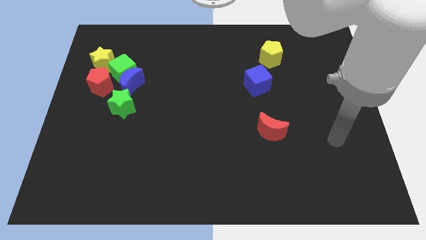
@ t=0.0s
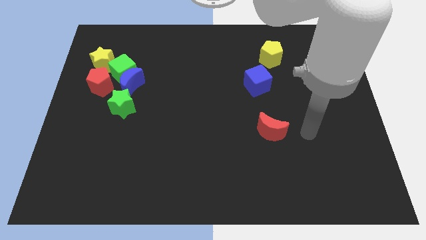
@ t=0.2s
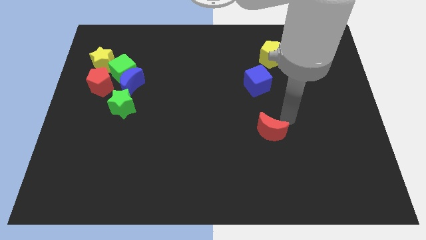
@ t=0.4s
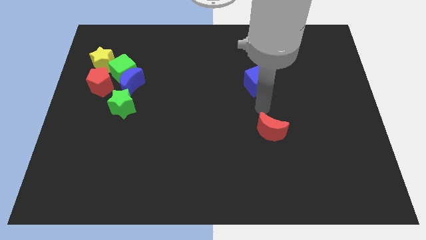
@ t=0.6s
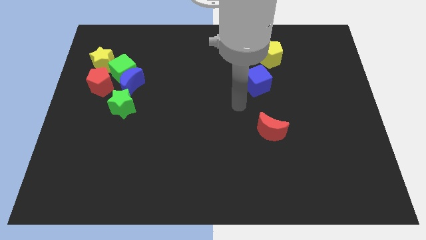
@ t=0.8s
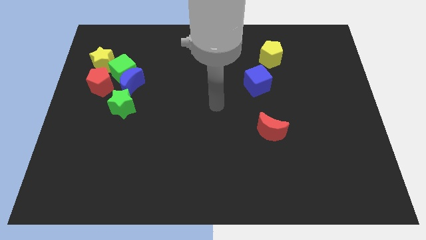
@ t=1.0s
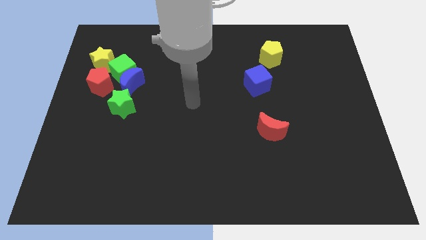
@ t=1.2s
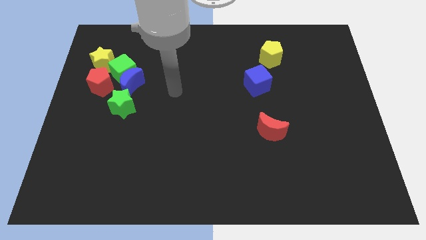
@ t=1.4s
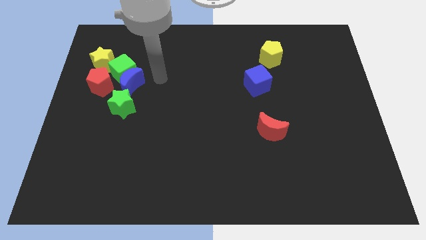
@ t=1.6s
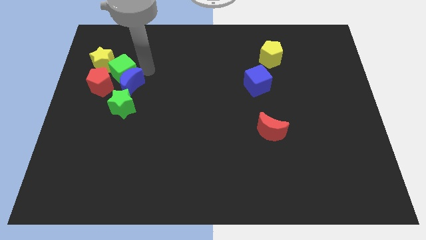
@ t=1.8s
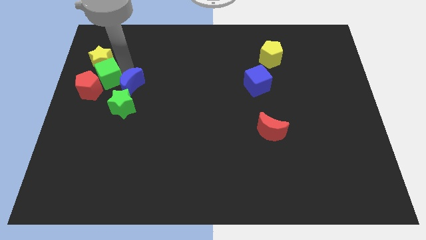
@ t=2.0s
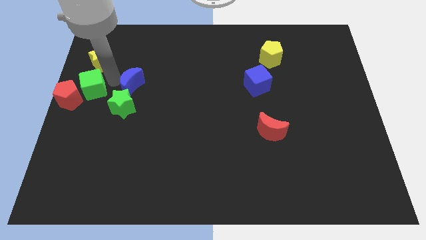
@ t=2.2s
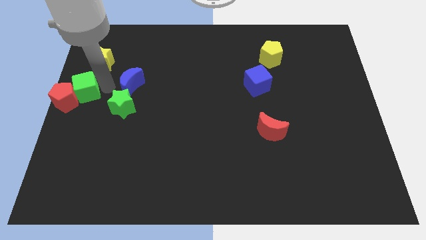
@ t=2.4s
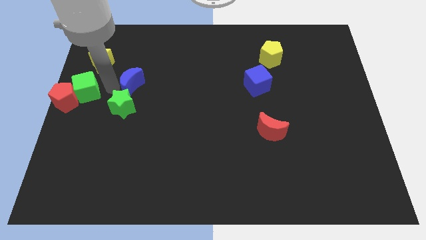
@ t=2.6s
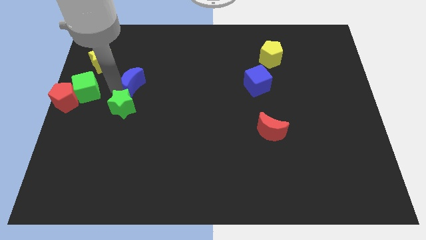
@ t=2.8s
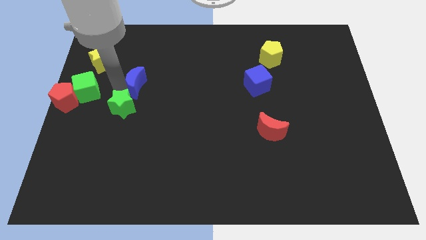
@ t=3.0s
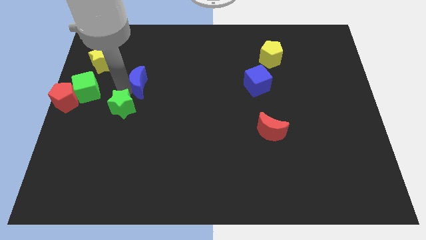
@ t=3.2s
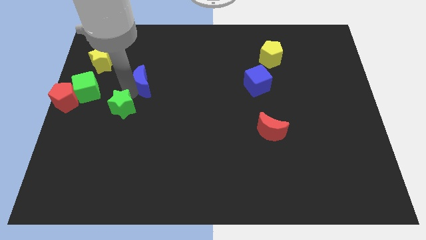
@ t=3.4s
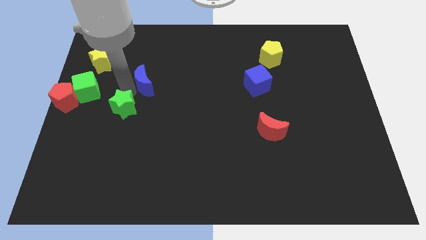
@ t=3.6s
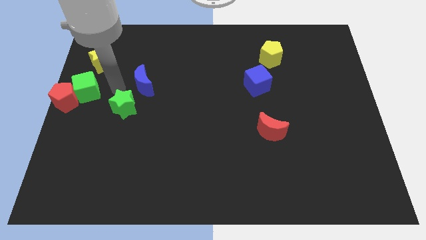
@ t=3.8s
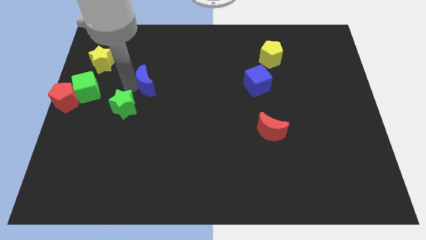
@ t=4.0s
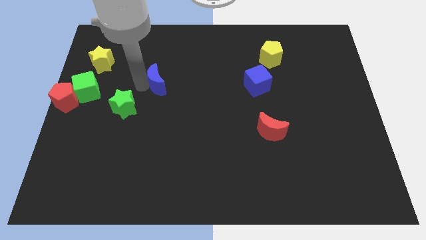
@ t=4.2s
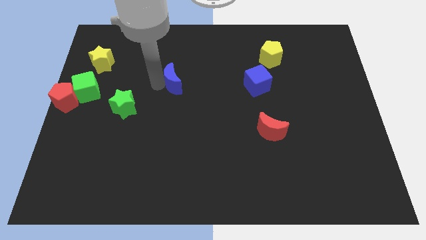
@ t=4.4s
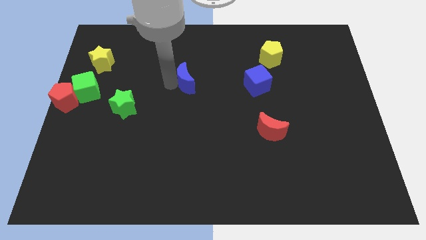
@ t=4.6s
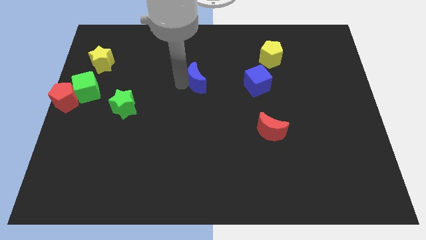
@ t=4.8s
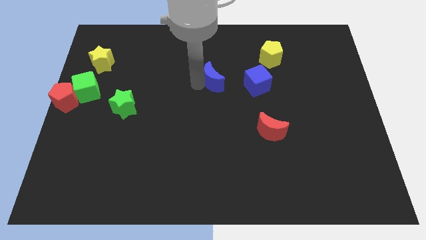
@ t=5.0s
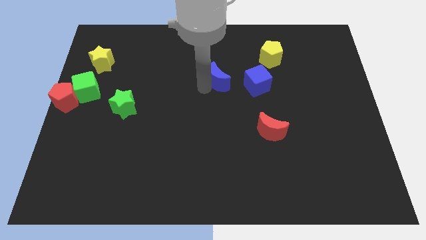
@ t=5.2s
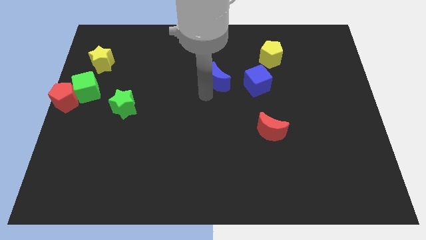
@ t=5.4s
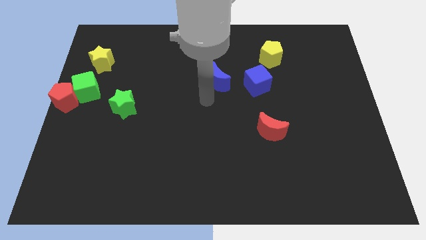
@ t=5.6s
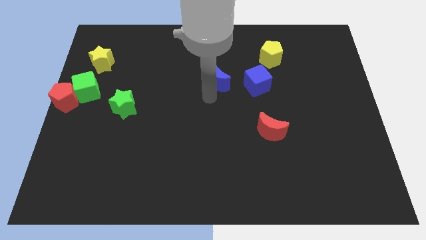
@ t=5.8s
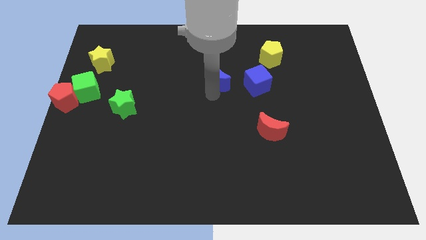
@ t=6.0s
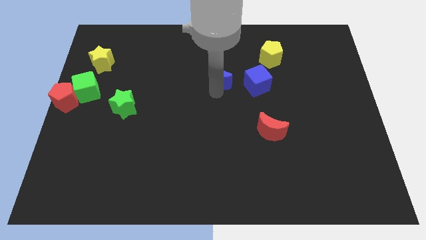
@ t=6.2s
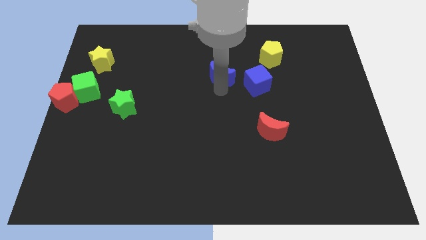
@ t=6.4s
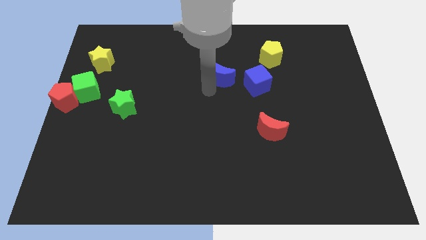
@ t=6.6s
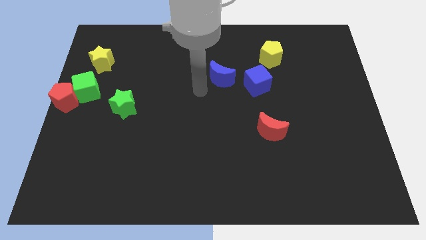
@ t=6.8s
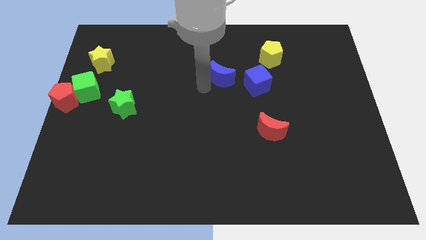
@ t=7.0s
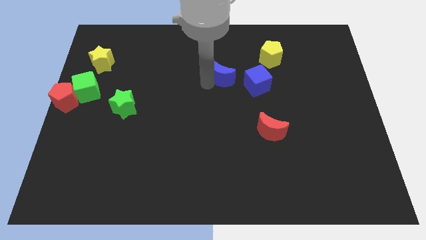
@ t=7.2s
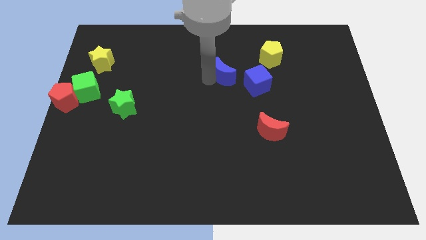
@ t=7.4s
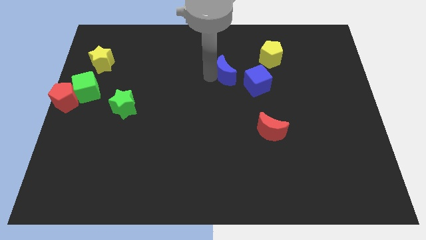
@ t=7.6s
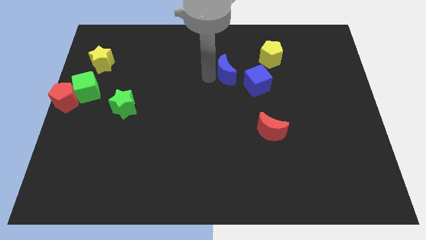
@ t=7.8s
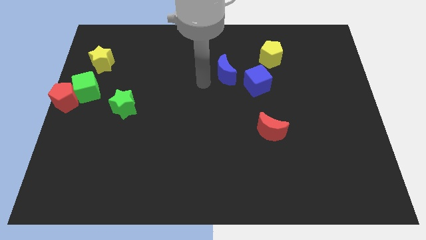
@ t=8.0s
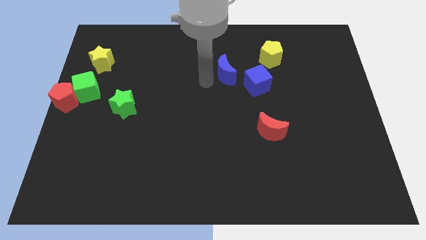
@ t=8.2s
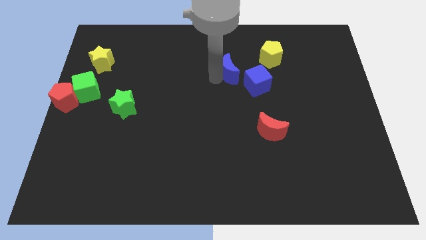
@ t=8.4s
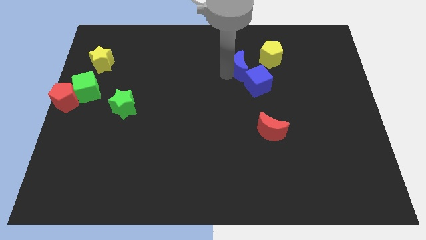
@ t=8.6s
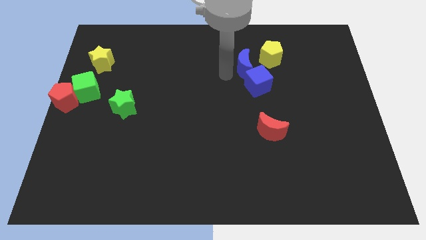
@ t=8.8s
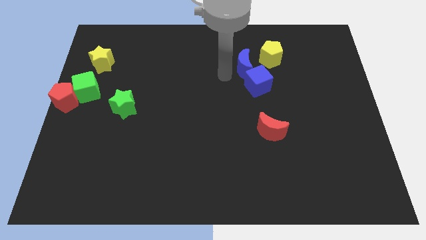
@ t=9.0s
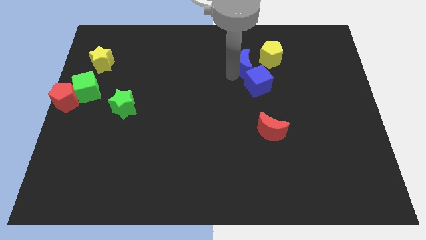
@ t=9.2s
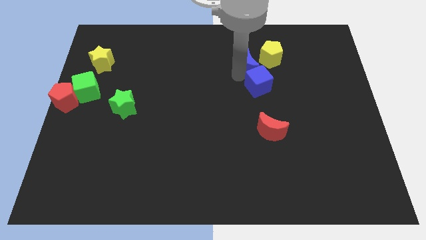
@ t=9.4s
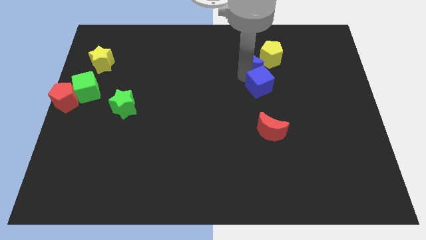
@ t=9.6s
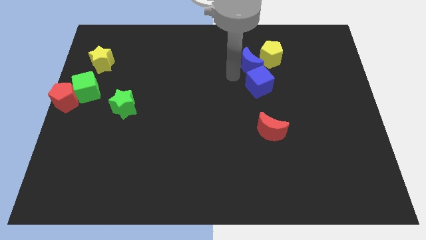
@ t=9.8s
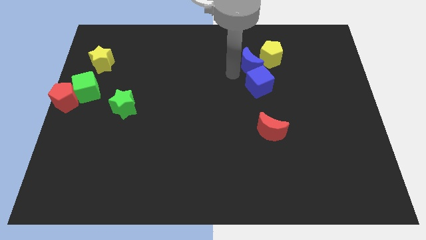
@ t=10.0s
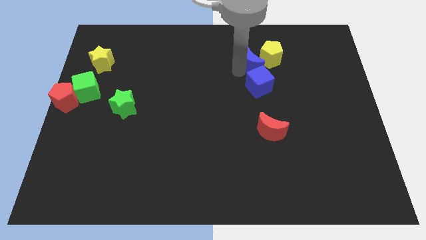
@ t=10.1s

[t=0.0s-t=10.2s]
slide the blue moon to the yellow pentagon

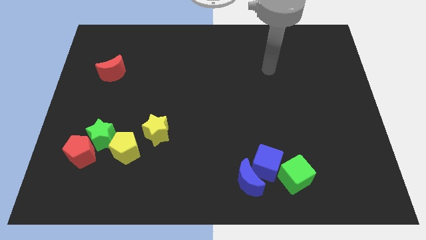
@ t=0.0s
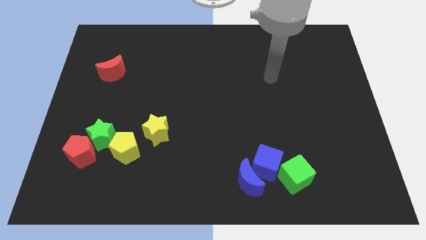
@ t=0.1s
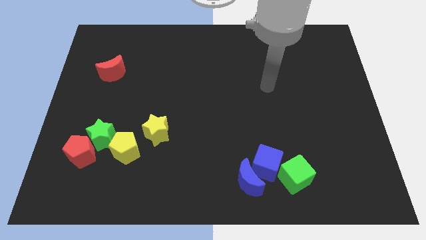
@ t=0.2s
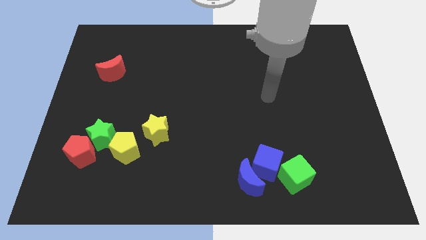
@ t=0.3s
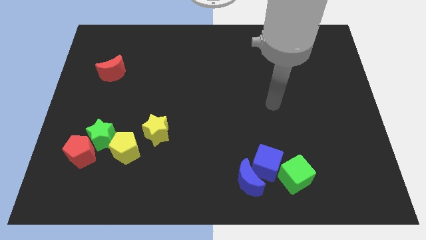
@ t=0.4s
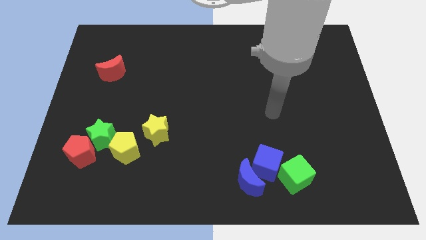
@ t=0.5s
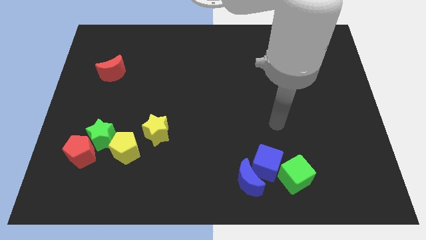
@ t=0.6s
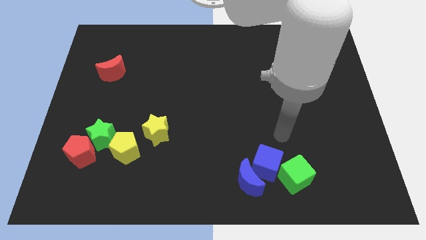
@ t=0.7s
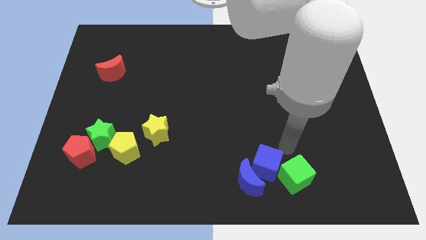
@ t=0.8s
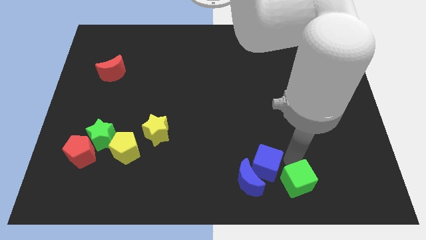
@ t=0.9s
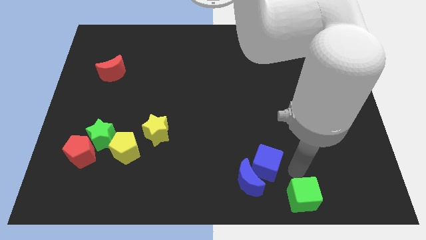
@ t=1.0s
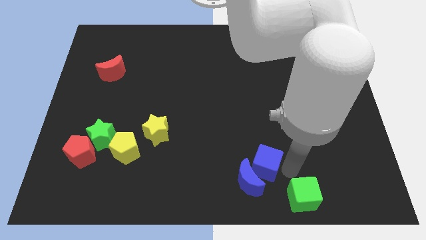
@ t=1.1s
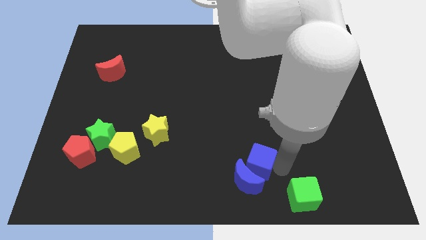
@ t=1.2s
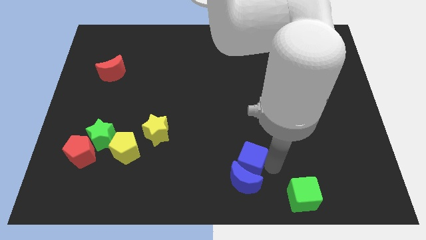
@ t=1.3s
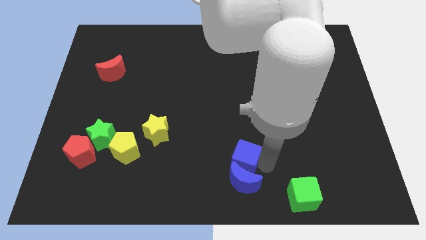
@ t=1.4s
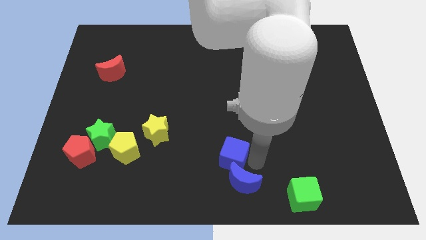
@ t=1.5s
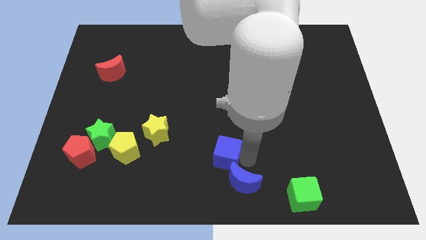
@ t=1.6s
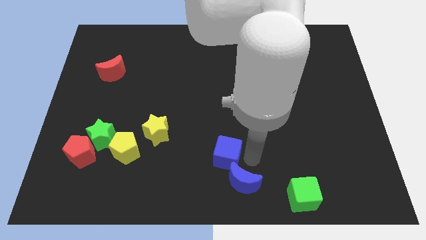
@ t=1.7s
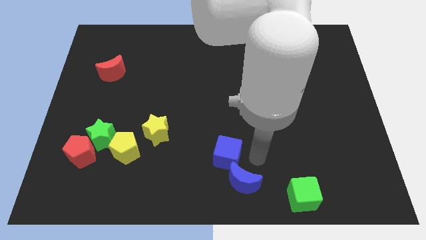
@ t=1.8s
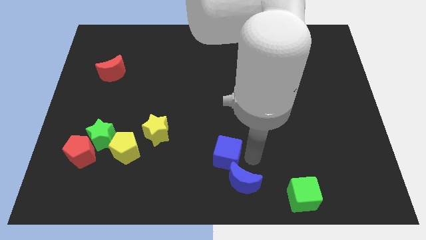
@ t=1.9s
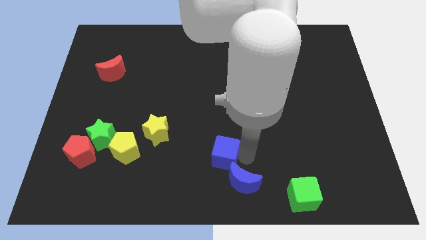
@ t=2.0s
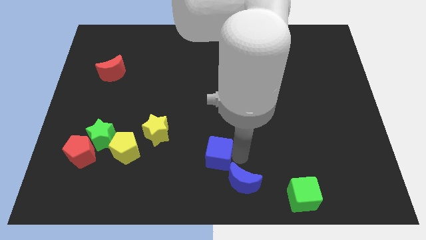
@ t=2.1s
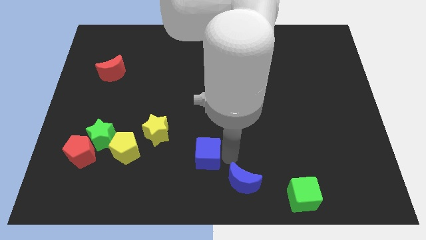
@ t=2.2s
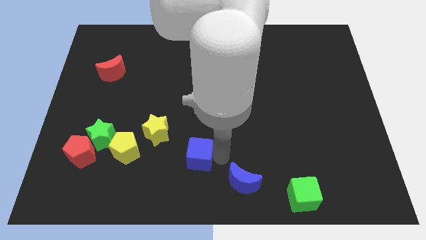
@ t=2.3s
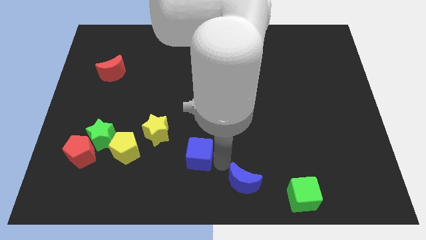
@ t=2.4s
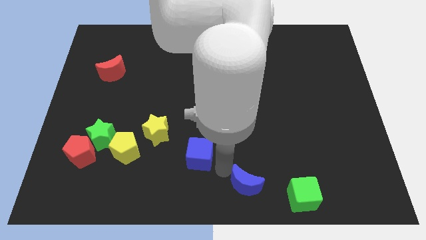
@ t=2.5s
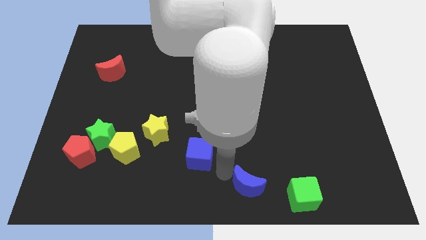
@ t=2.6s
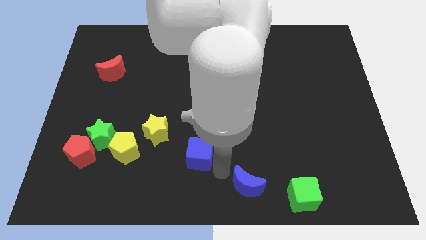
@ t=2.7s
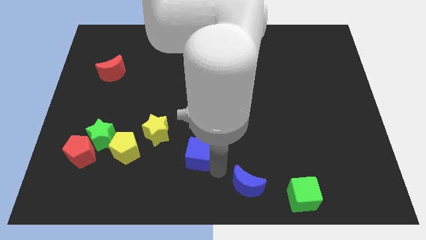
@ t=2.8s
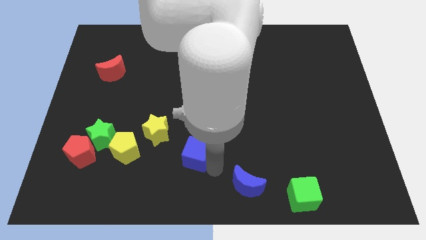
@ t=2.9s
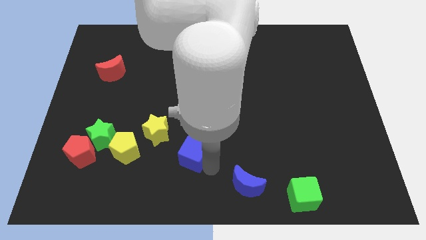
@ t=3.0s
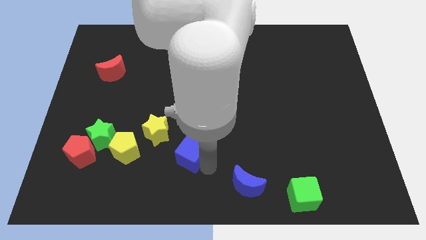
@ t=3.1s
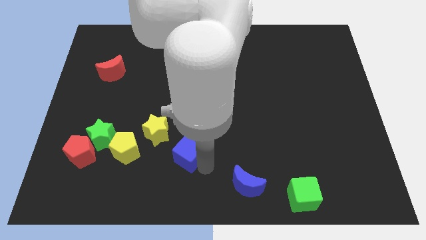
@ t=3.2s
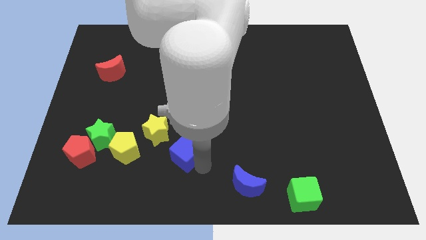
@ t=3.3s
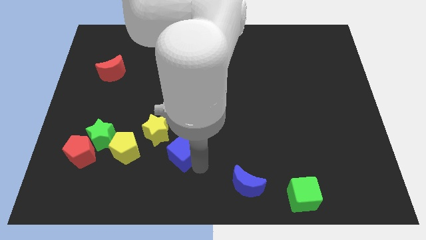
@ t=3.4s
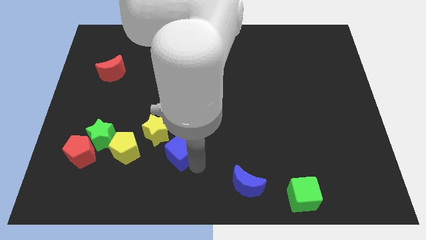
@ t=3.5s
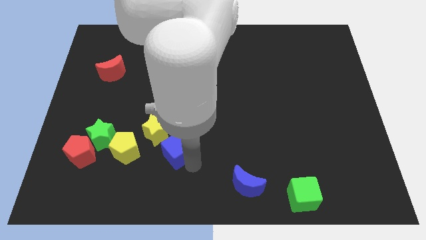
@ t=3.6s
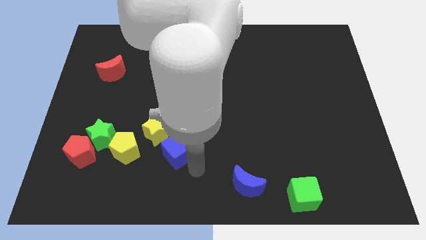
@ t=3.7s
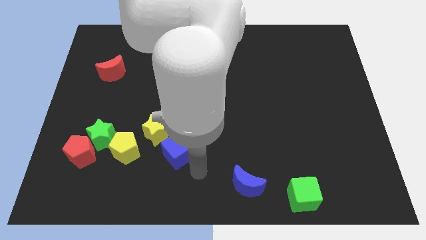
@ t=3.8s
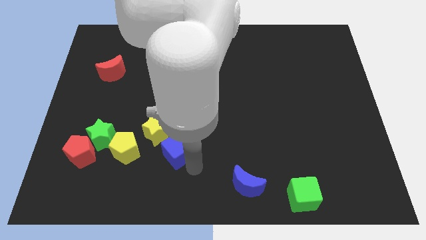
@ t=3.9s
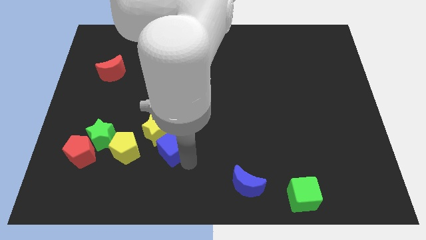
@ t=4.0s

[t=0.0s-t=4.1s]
slide the blue cube towards the yellow star
